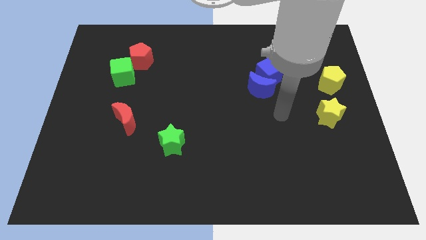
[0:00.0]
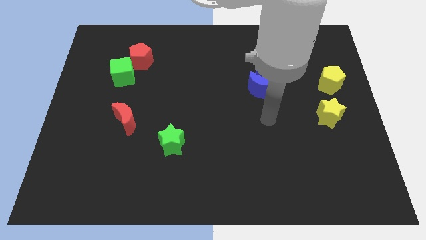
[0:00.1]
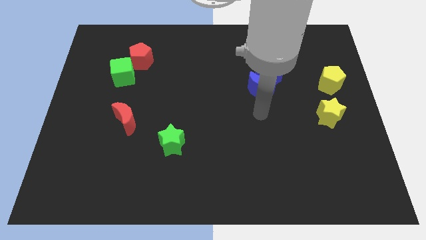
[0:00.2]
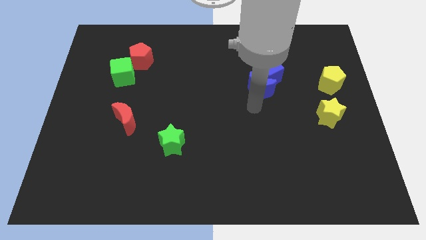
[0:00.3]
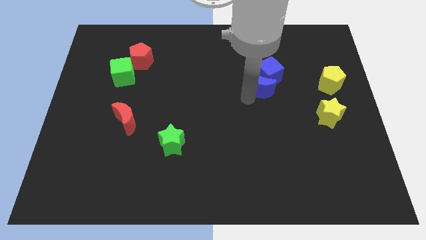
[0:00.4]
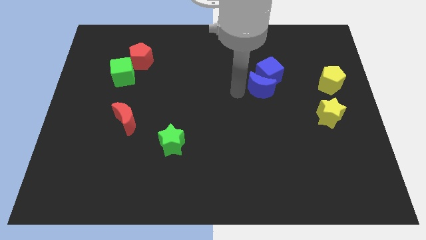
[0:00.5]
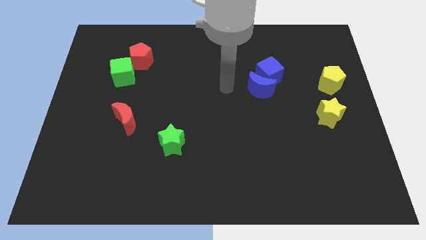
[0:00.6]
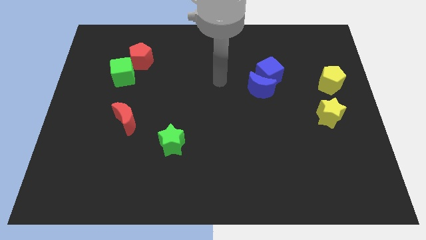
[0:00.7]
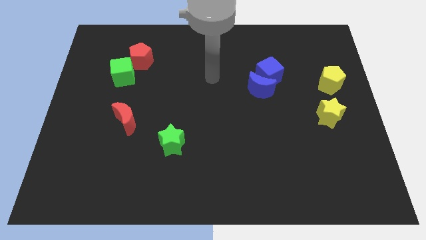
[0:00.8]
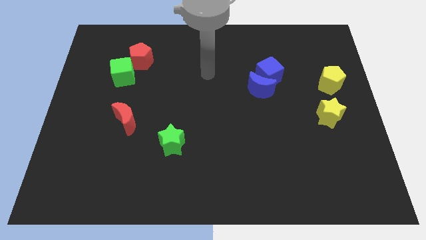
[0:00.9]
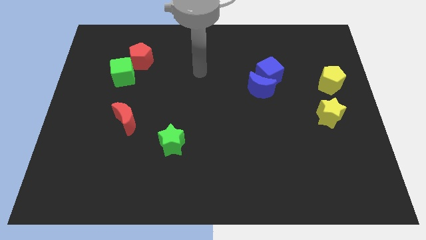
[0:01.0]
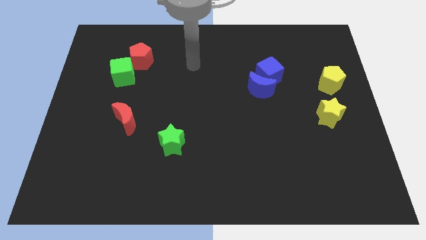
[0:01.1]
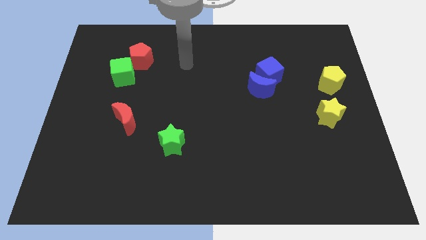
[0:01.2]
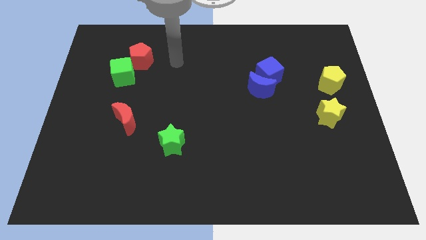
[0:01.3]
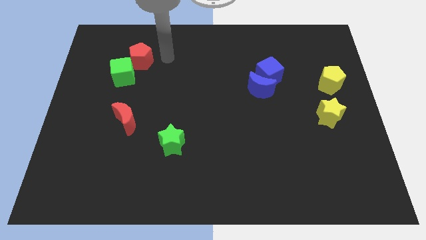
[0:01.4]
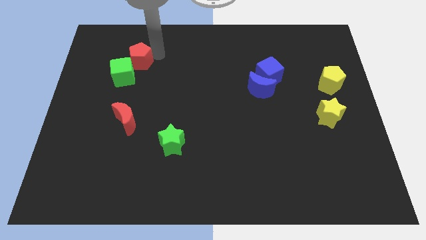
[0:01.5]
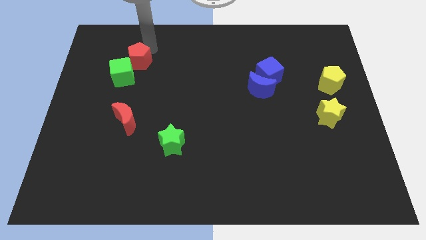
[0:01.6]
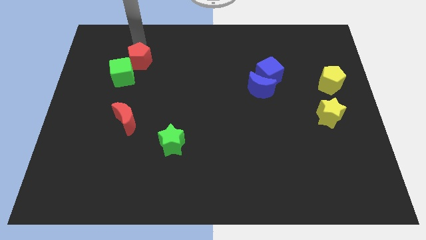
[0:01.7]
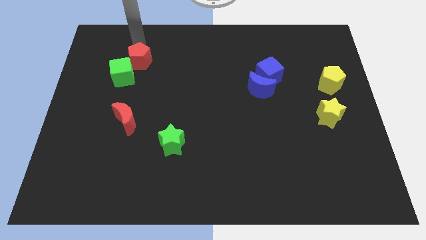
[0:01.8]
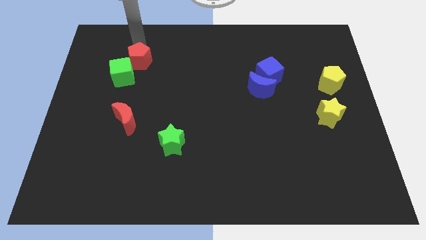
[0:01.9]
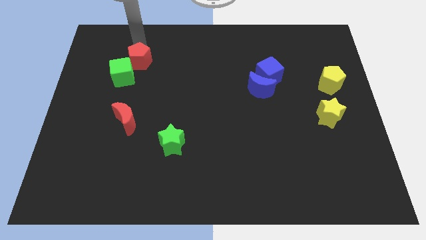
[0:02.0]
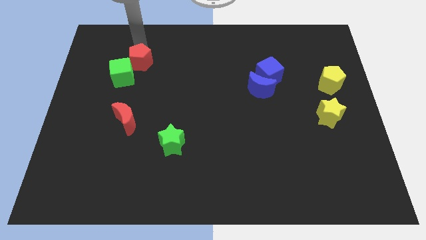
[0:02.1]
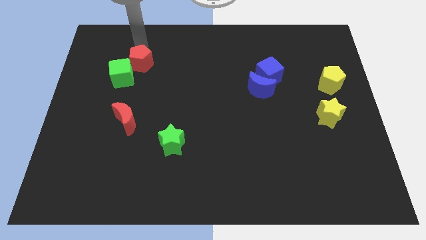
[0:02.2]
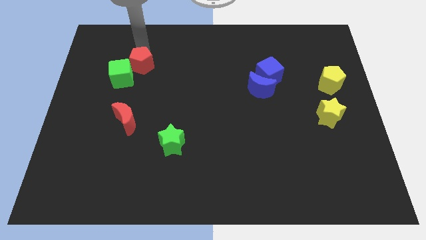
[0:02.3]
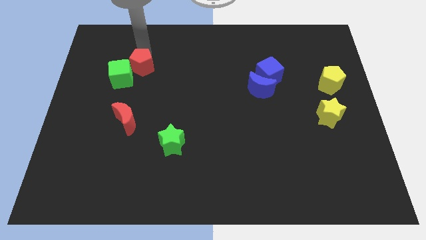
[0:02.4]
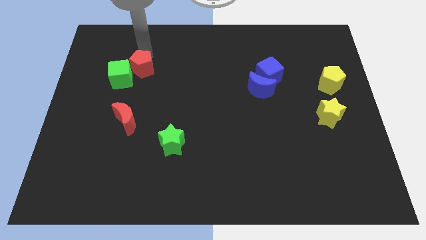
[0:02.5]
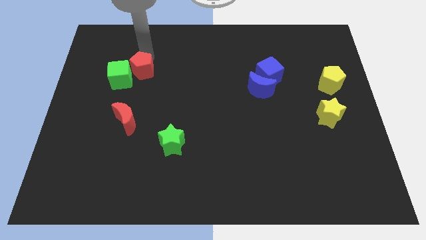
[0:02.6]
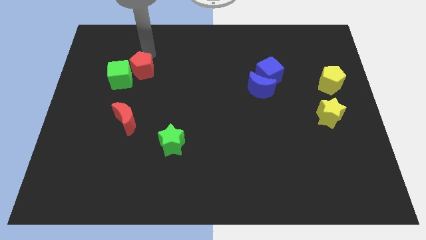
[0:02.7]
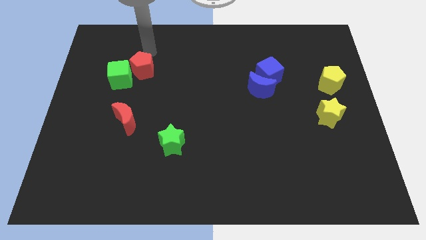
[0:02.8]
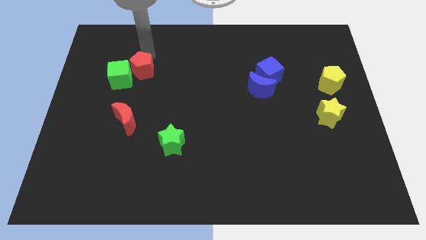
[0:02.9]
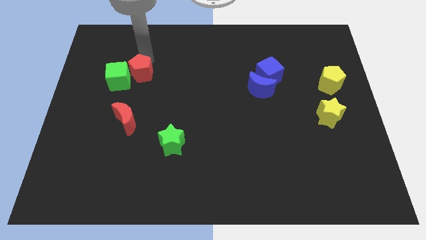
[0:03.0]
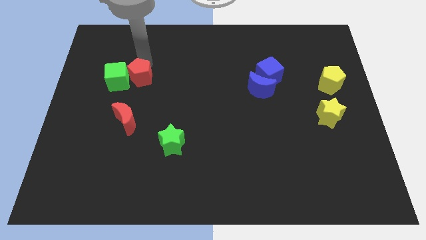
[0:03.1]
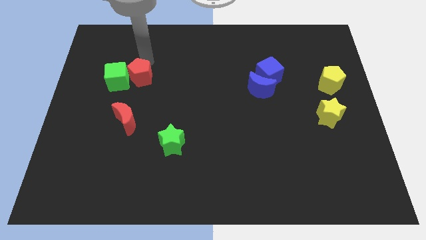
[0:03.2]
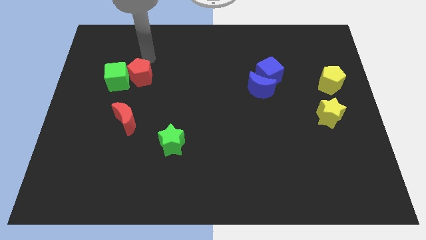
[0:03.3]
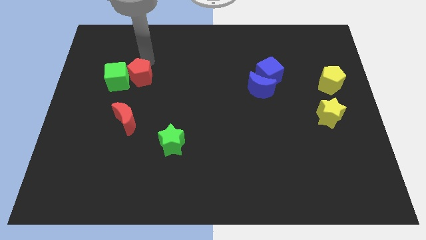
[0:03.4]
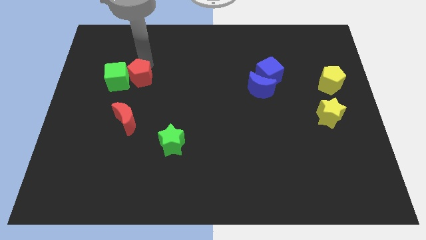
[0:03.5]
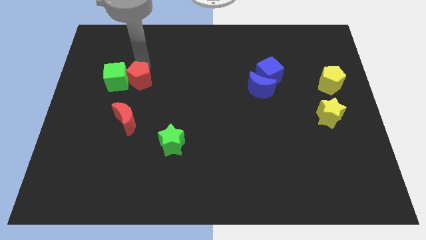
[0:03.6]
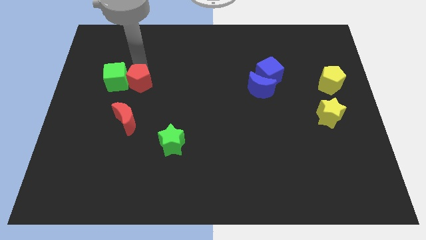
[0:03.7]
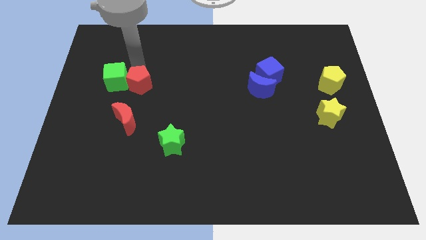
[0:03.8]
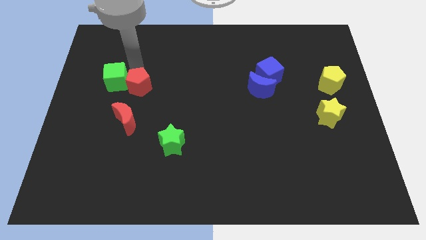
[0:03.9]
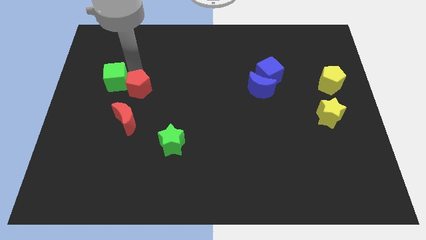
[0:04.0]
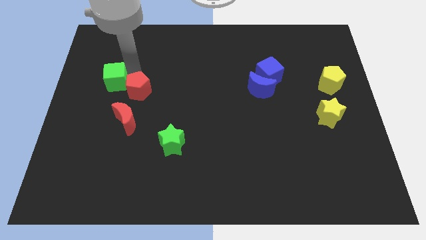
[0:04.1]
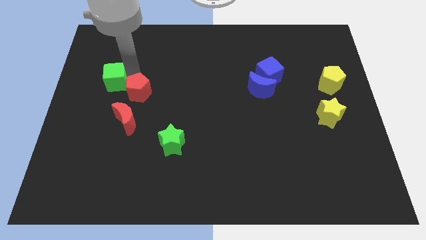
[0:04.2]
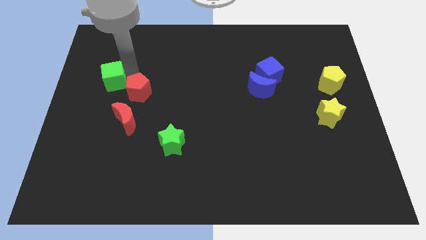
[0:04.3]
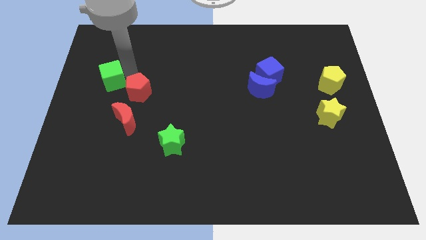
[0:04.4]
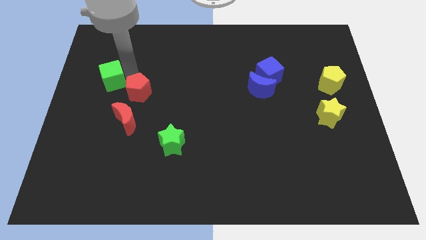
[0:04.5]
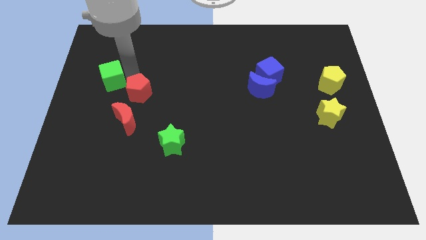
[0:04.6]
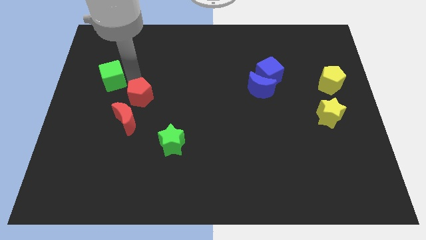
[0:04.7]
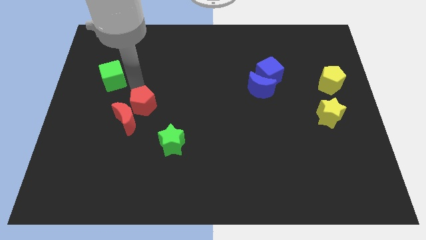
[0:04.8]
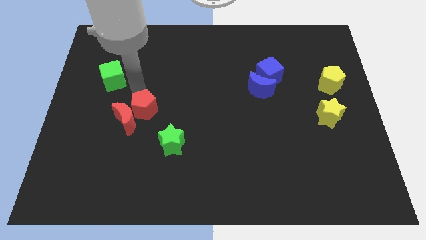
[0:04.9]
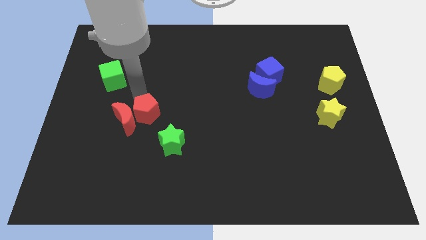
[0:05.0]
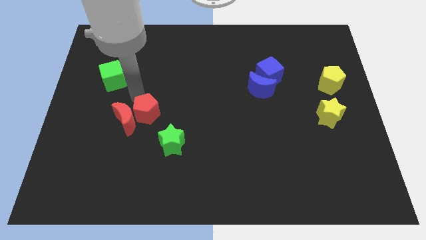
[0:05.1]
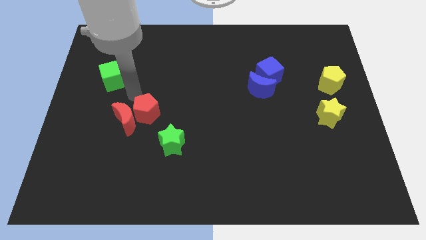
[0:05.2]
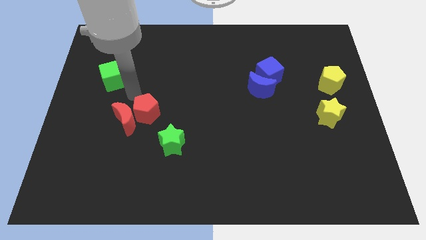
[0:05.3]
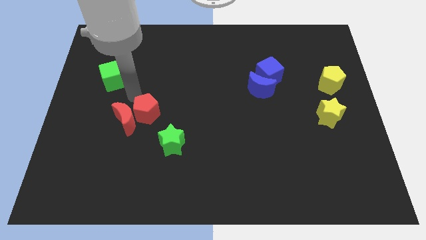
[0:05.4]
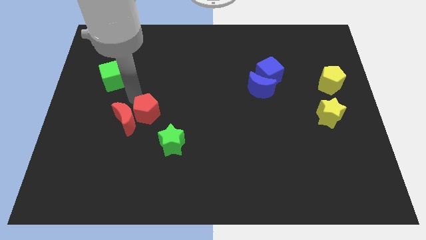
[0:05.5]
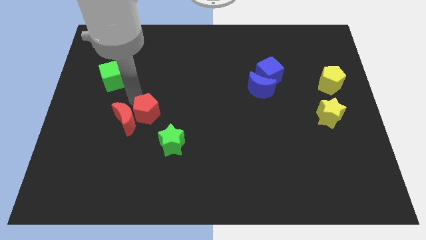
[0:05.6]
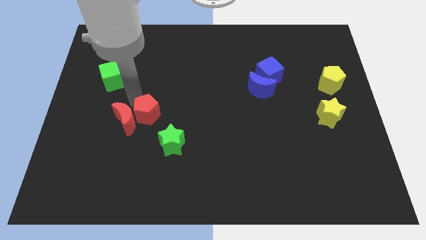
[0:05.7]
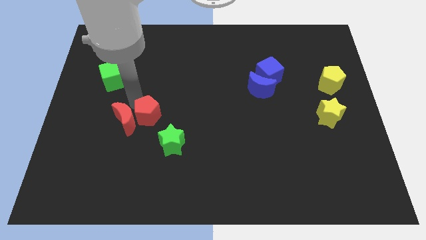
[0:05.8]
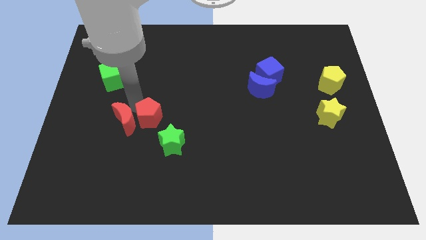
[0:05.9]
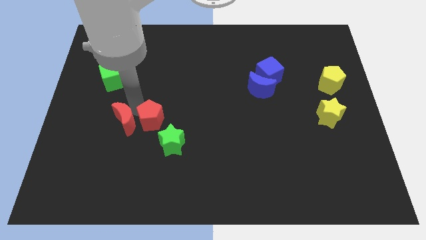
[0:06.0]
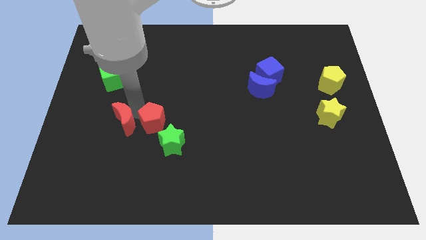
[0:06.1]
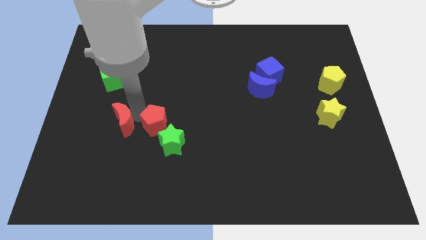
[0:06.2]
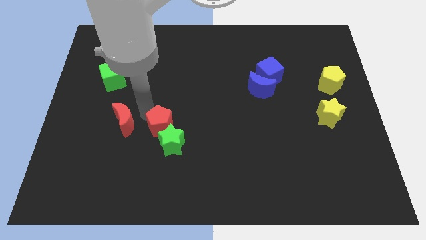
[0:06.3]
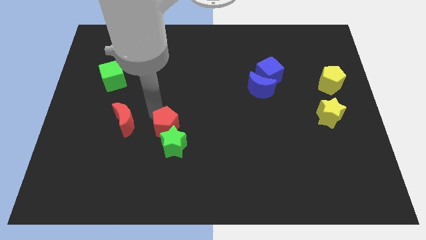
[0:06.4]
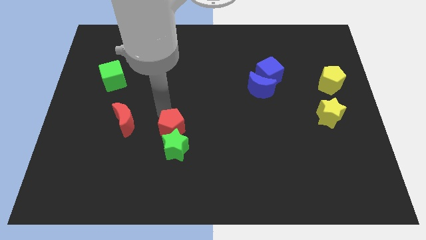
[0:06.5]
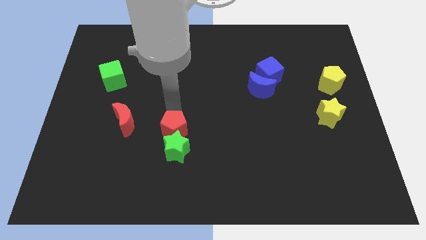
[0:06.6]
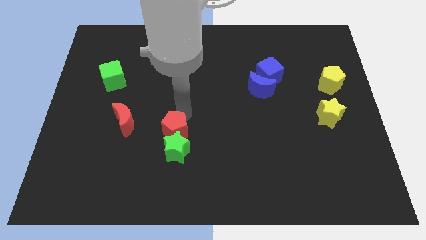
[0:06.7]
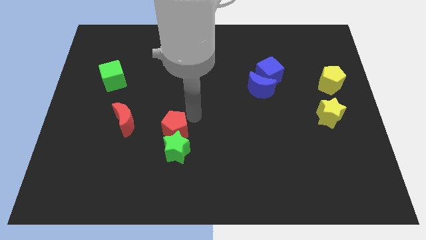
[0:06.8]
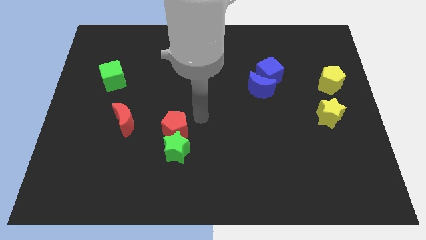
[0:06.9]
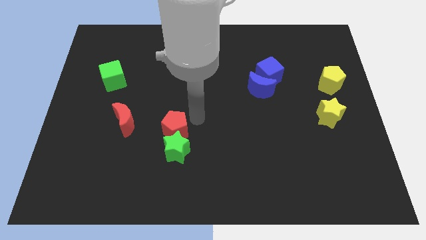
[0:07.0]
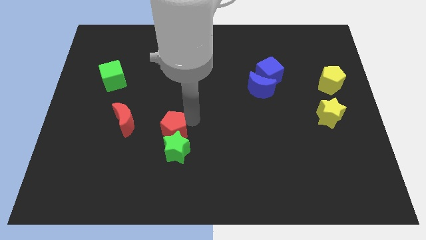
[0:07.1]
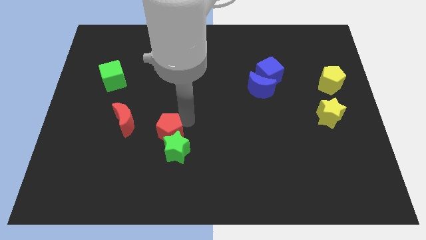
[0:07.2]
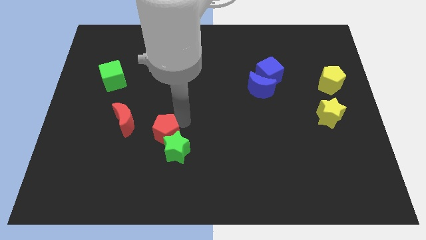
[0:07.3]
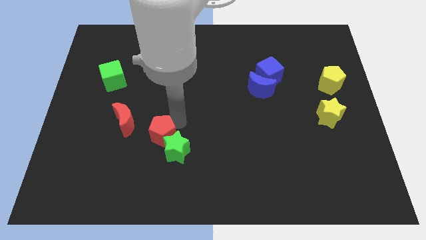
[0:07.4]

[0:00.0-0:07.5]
put the red pentagon just left of the green star
